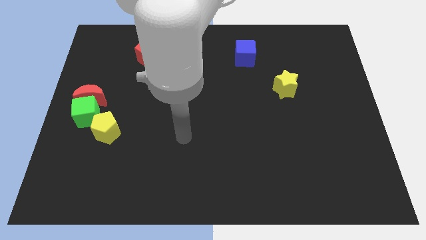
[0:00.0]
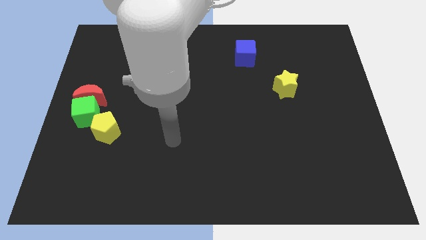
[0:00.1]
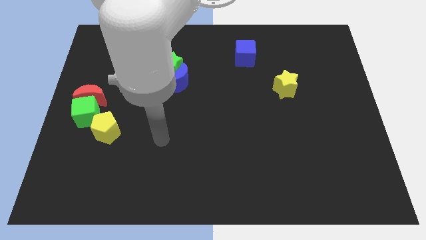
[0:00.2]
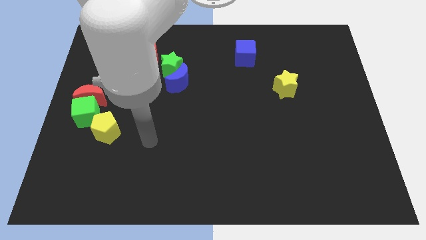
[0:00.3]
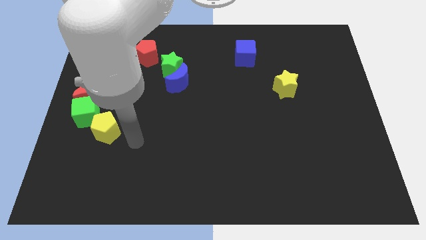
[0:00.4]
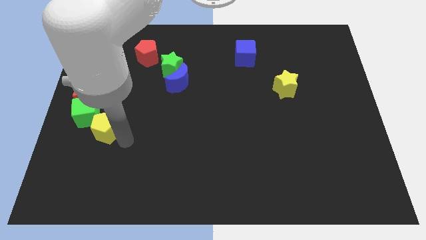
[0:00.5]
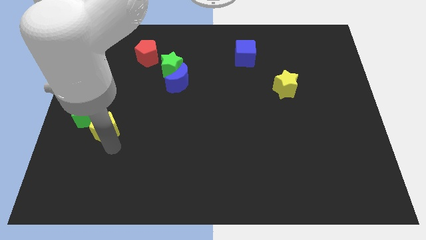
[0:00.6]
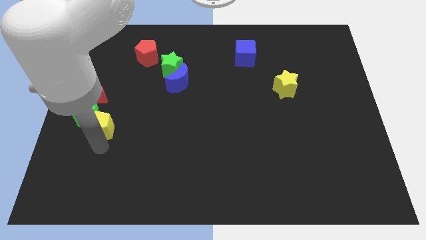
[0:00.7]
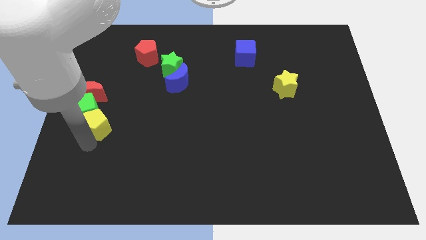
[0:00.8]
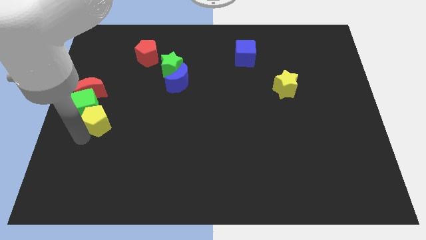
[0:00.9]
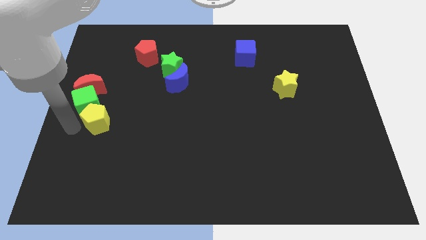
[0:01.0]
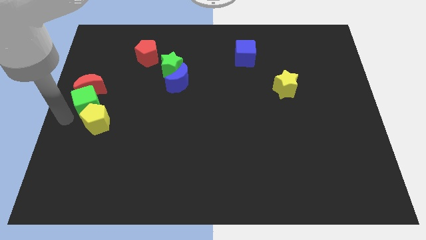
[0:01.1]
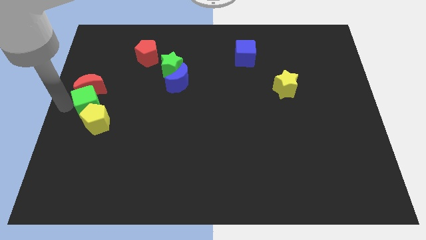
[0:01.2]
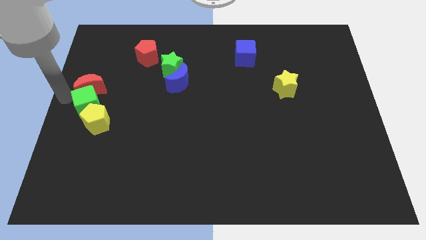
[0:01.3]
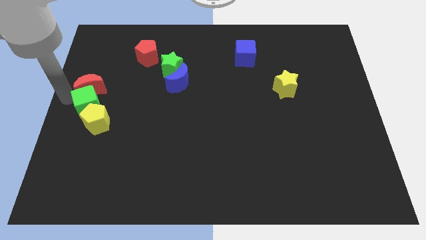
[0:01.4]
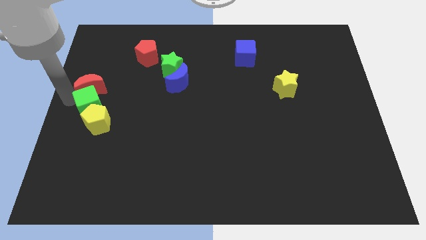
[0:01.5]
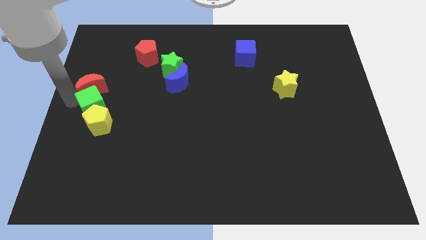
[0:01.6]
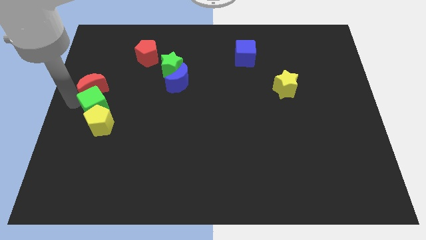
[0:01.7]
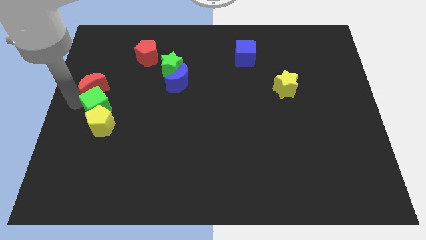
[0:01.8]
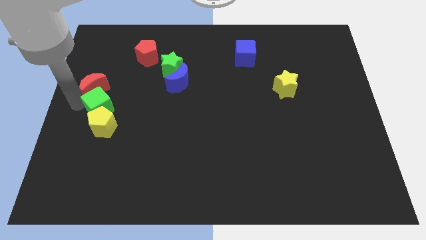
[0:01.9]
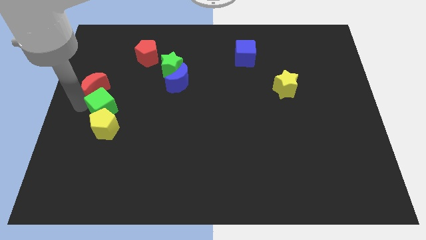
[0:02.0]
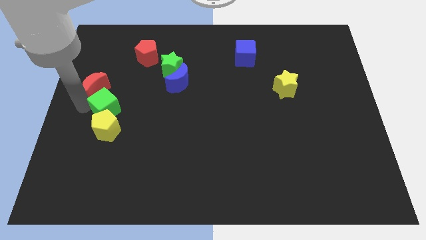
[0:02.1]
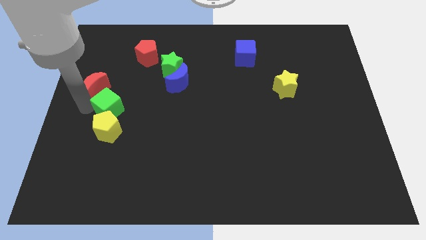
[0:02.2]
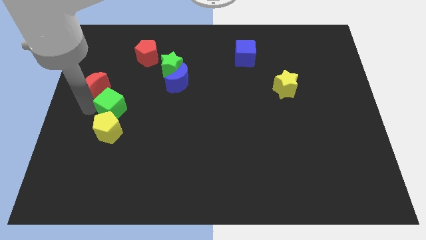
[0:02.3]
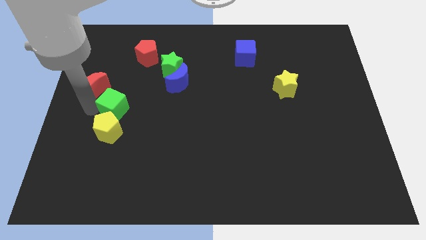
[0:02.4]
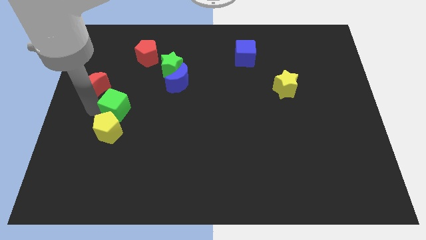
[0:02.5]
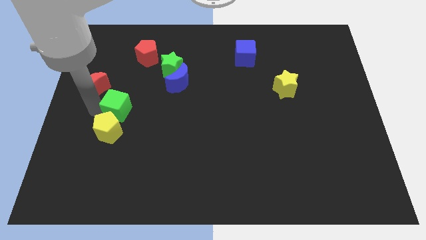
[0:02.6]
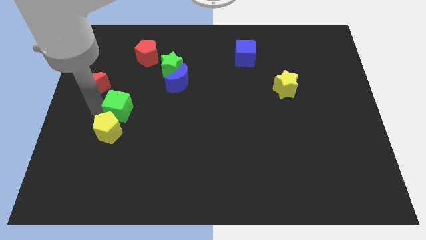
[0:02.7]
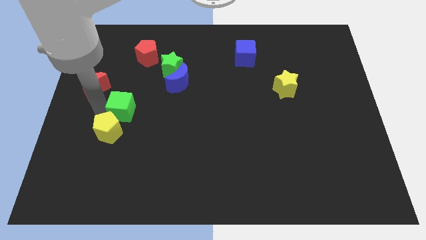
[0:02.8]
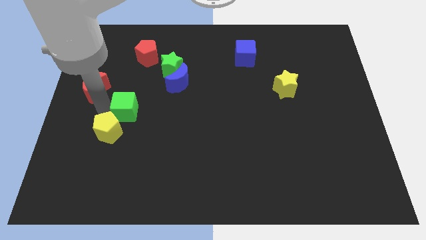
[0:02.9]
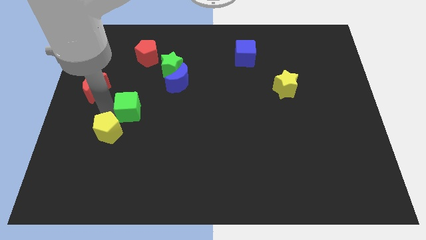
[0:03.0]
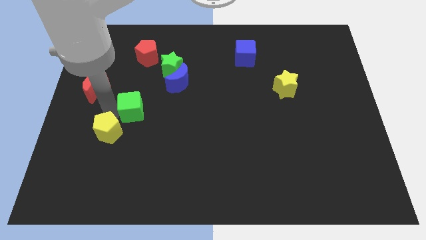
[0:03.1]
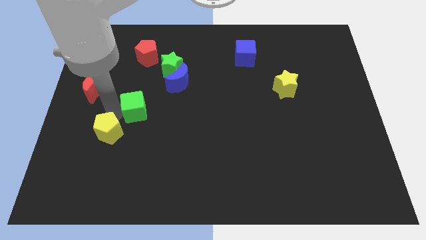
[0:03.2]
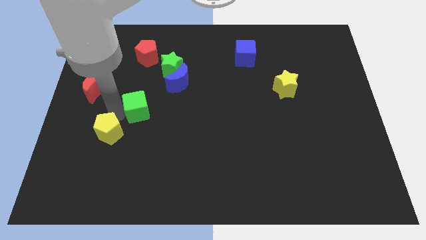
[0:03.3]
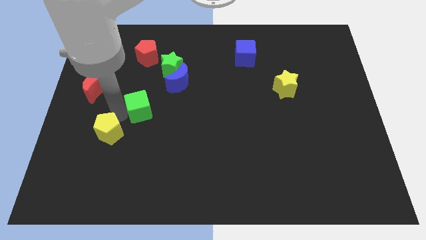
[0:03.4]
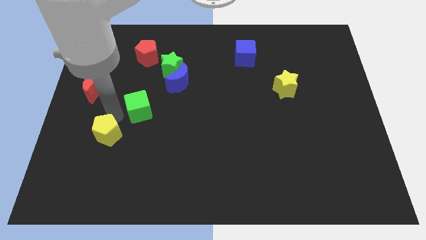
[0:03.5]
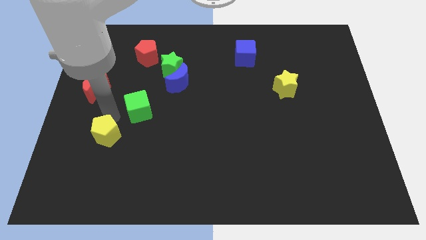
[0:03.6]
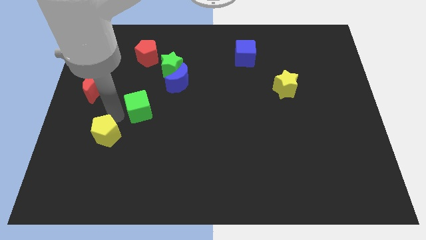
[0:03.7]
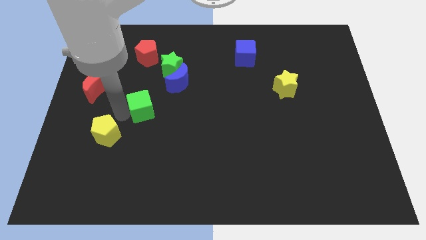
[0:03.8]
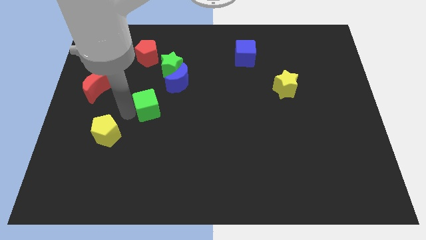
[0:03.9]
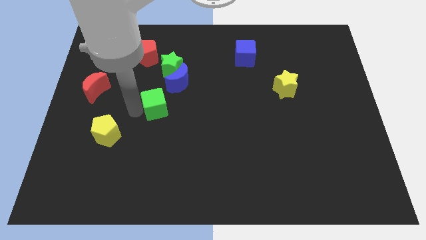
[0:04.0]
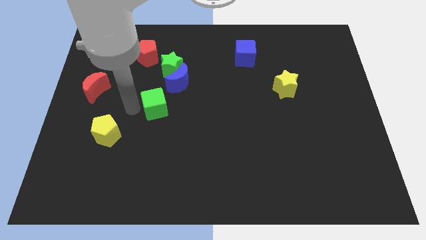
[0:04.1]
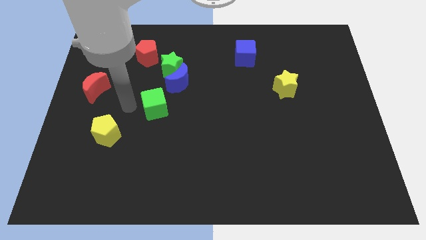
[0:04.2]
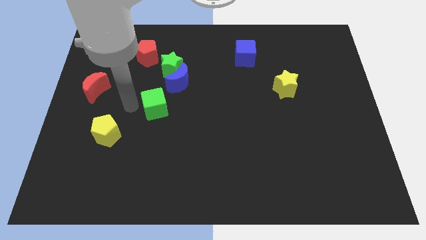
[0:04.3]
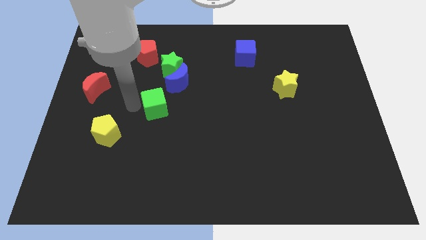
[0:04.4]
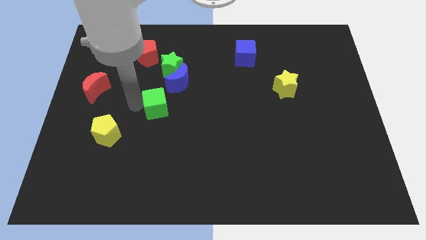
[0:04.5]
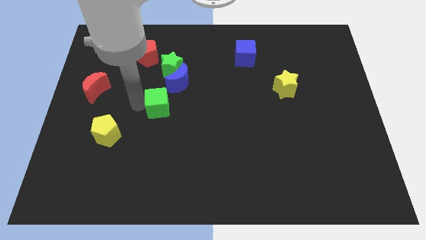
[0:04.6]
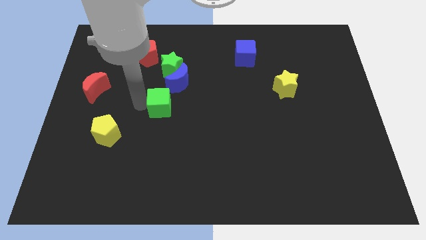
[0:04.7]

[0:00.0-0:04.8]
push the green cube to the center

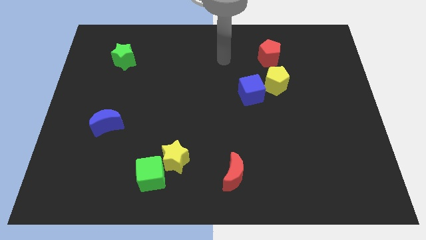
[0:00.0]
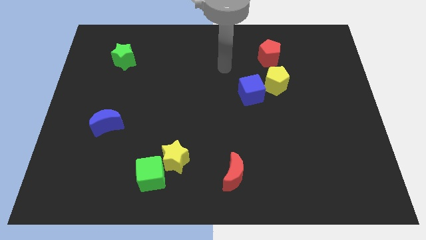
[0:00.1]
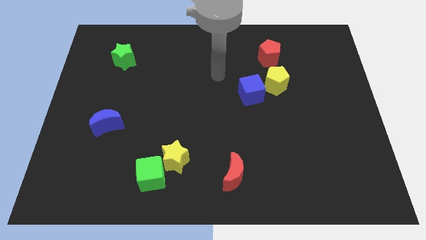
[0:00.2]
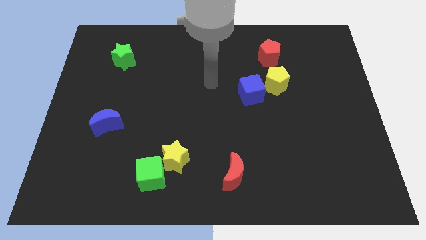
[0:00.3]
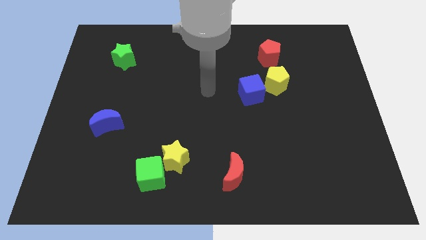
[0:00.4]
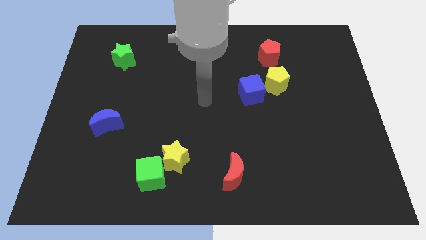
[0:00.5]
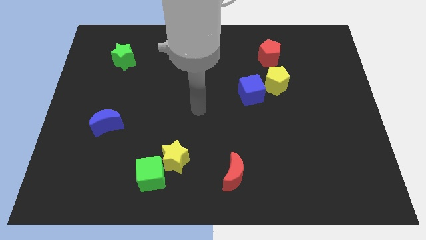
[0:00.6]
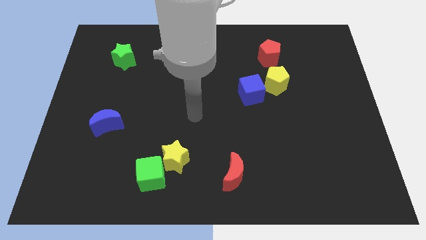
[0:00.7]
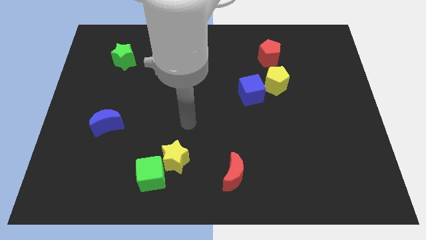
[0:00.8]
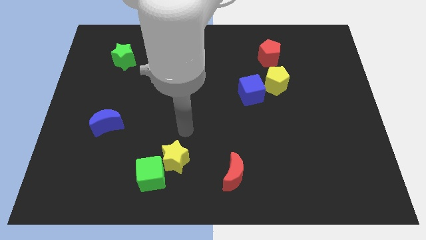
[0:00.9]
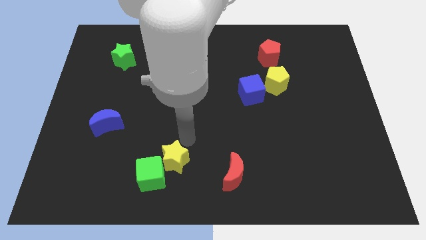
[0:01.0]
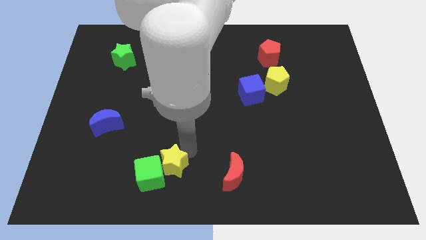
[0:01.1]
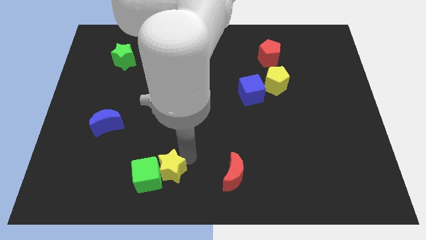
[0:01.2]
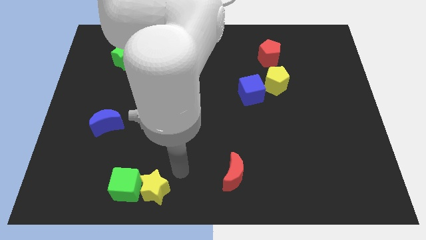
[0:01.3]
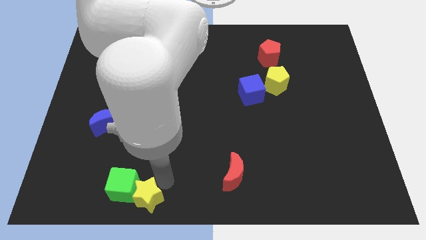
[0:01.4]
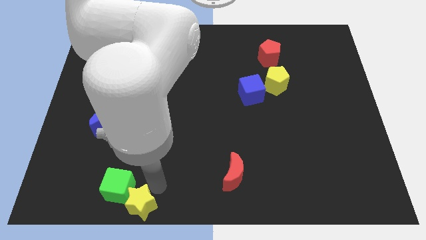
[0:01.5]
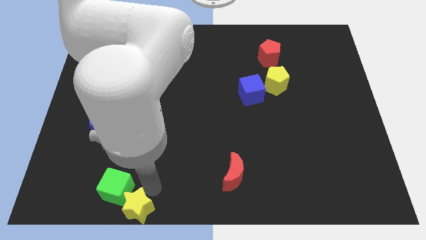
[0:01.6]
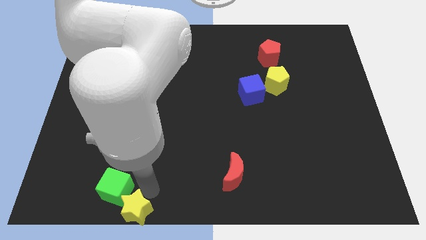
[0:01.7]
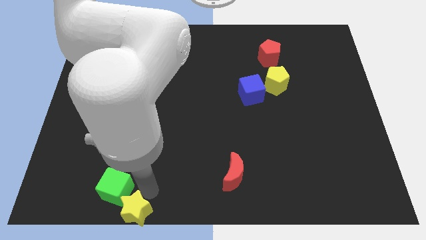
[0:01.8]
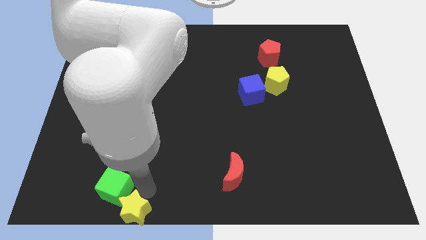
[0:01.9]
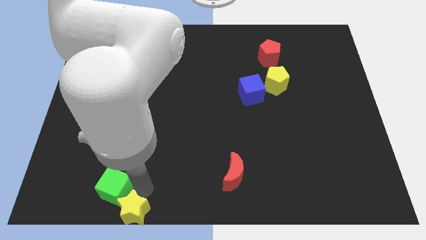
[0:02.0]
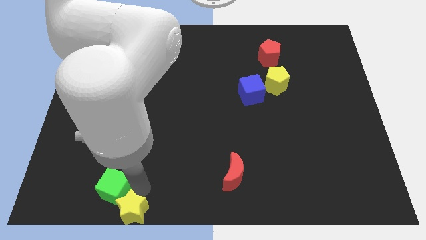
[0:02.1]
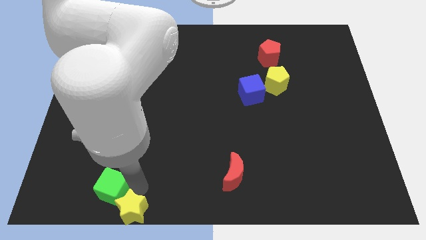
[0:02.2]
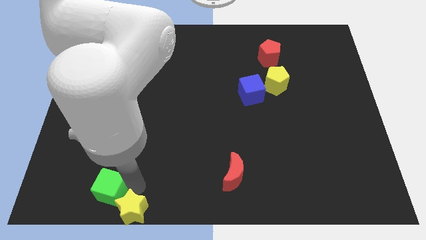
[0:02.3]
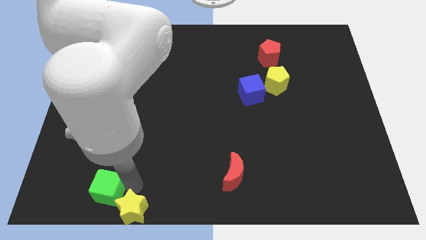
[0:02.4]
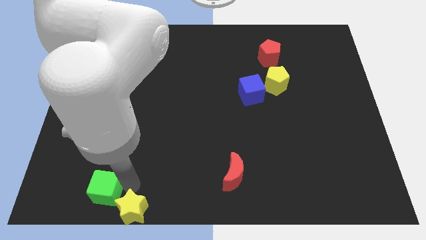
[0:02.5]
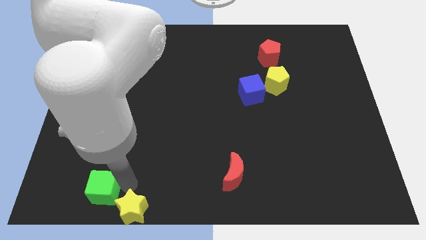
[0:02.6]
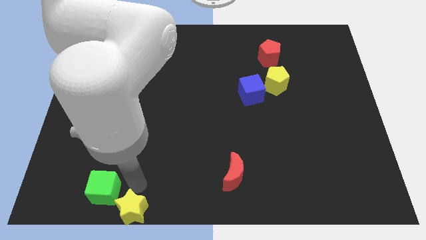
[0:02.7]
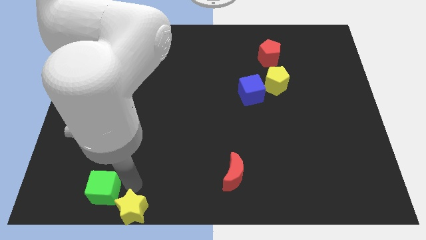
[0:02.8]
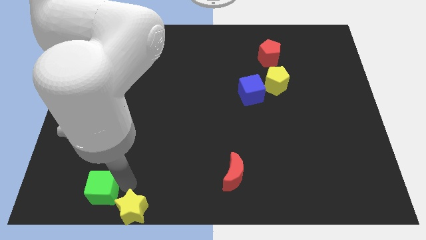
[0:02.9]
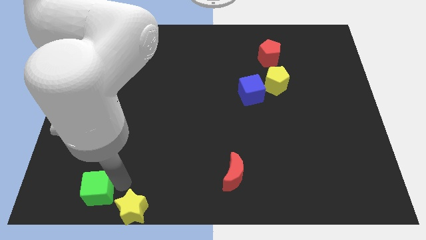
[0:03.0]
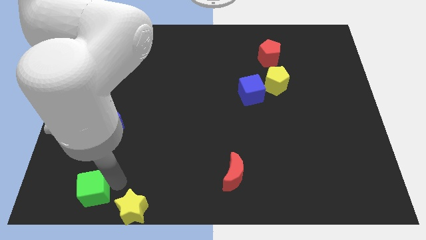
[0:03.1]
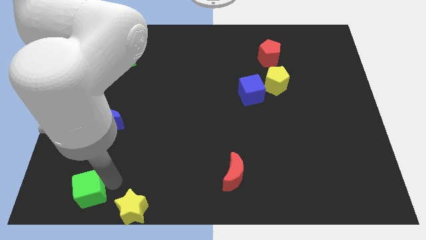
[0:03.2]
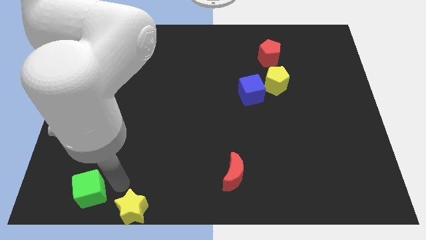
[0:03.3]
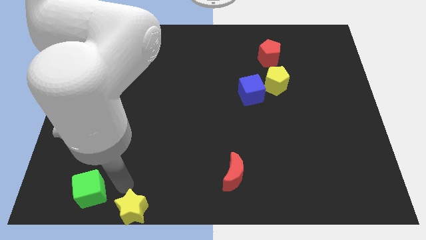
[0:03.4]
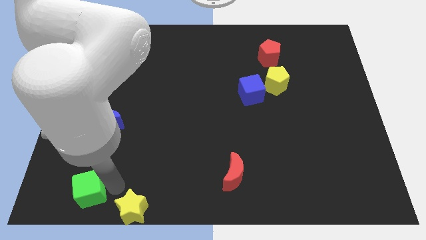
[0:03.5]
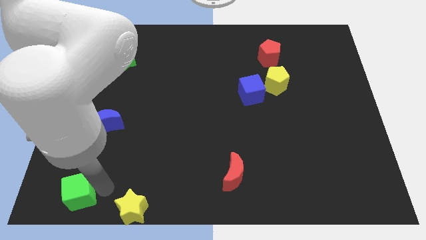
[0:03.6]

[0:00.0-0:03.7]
put the green cube to the lower left corner
